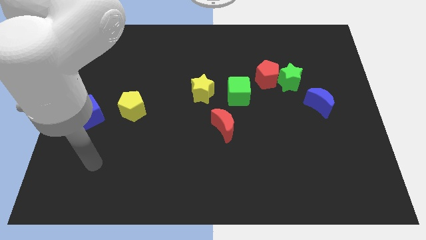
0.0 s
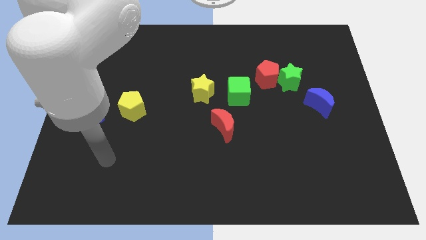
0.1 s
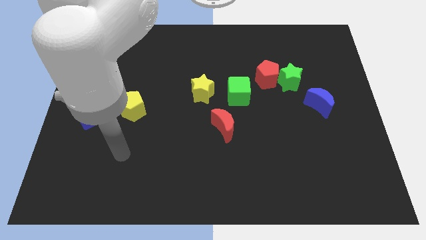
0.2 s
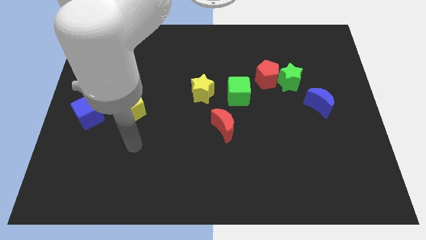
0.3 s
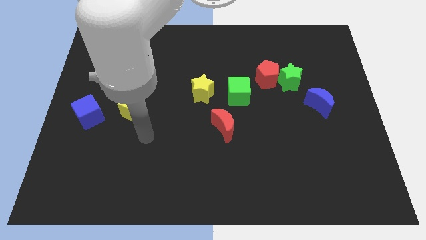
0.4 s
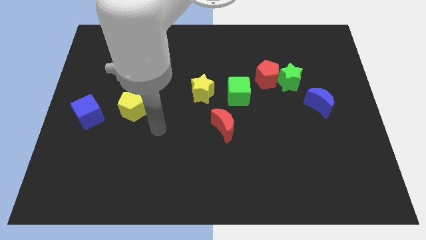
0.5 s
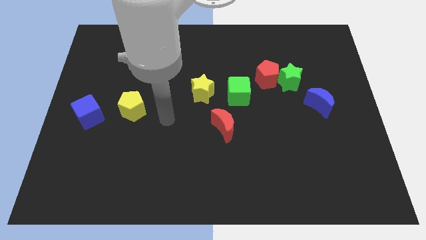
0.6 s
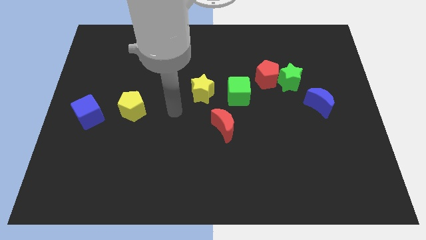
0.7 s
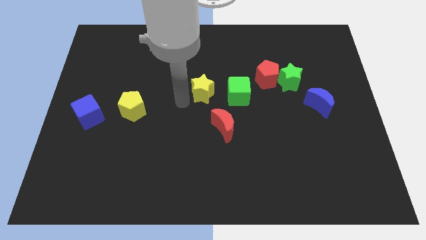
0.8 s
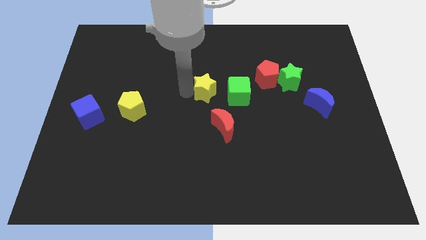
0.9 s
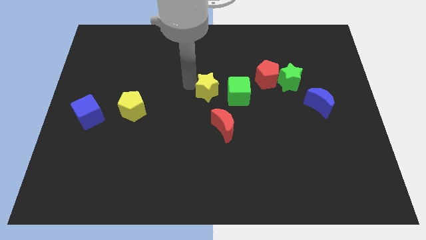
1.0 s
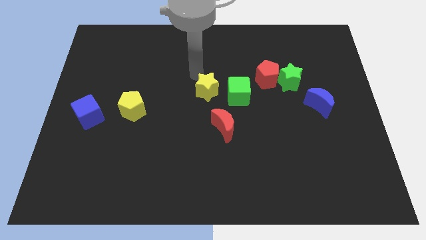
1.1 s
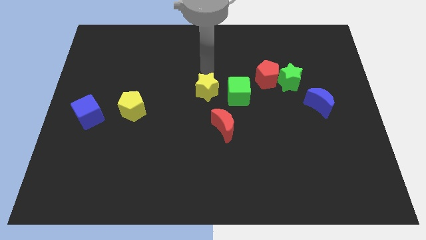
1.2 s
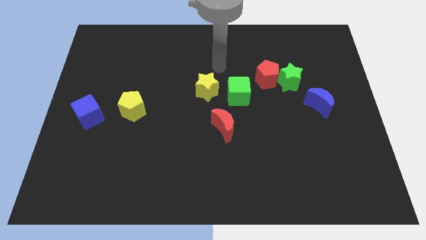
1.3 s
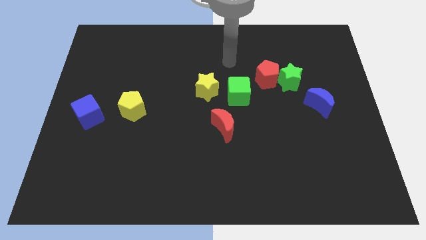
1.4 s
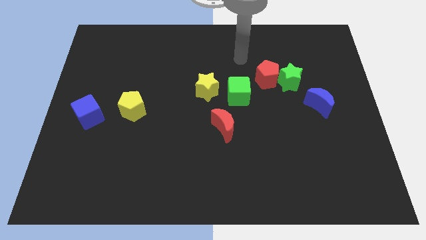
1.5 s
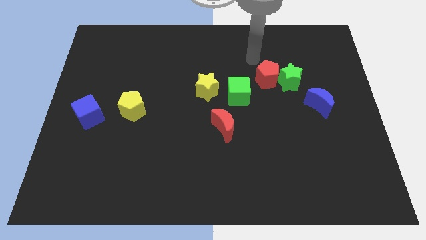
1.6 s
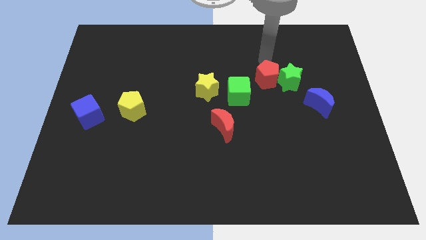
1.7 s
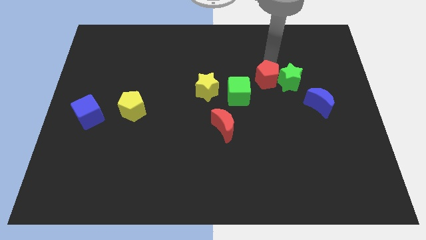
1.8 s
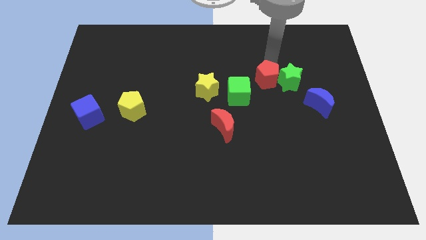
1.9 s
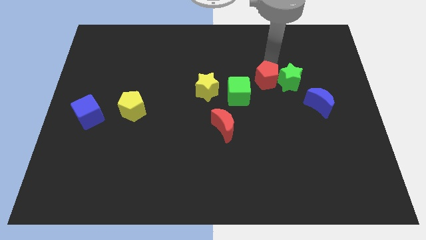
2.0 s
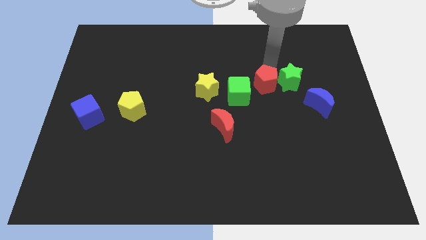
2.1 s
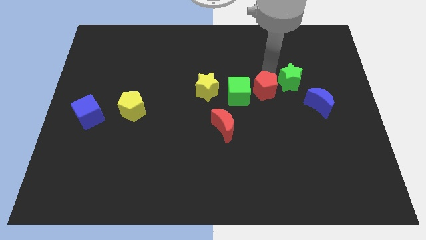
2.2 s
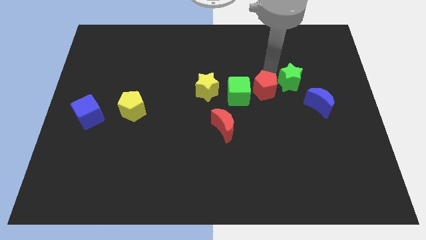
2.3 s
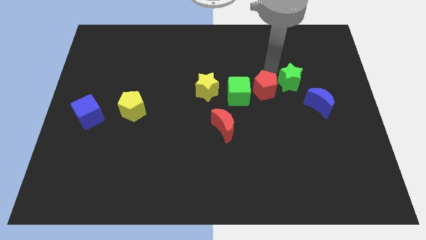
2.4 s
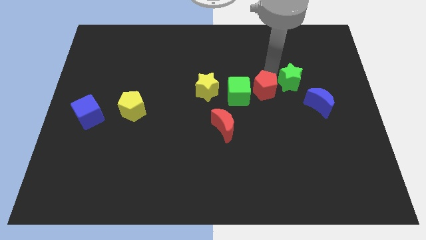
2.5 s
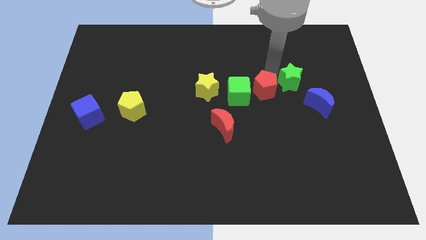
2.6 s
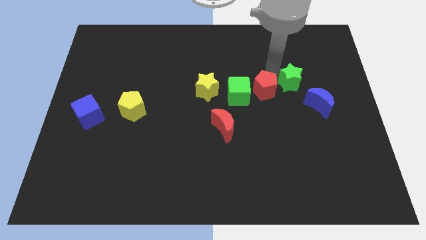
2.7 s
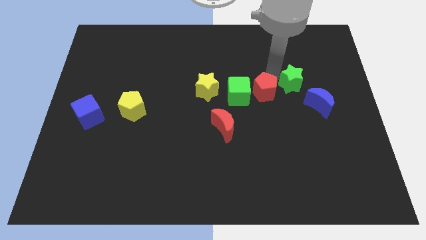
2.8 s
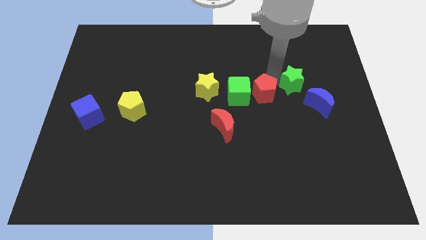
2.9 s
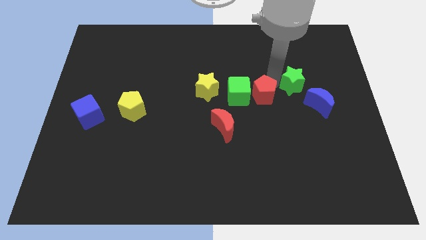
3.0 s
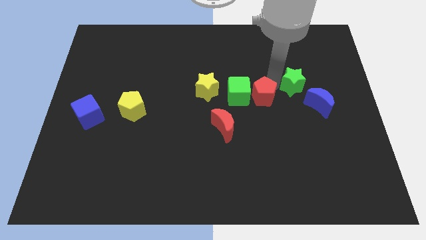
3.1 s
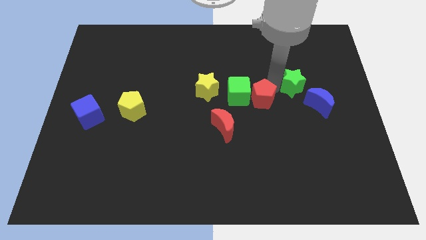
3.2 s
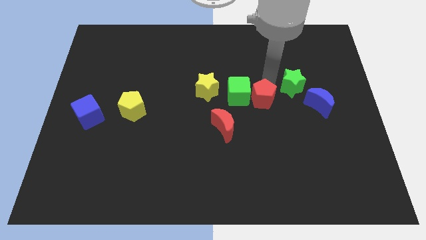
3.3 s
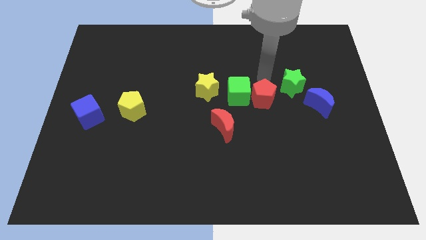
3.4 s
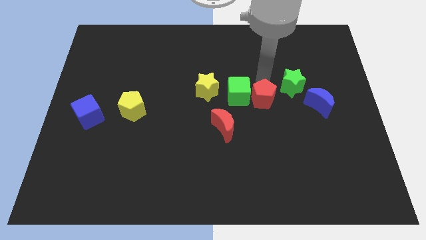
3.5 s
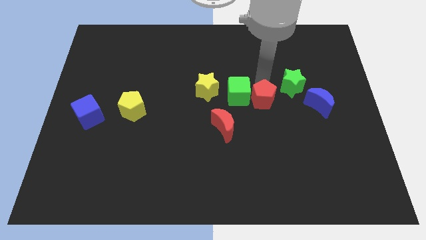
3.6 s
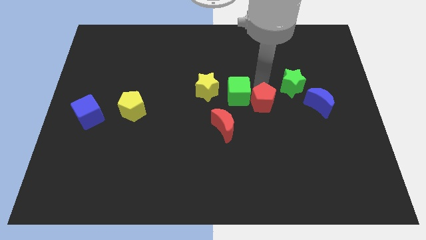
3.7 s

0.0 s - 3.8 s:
slightly slide the red pentagon down

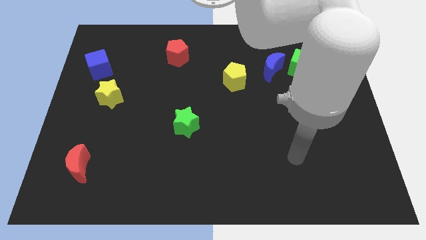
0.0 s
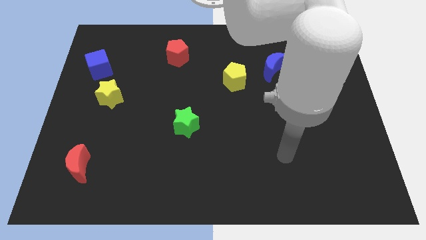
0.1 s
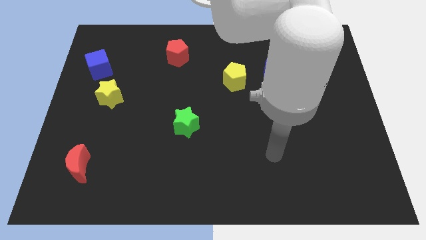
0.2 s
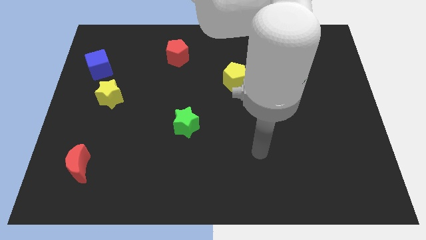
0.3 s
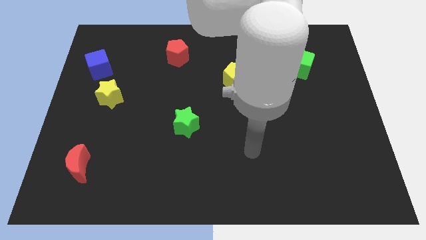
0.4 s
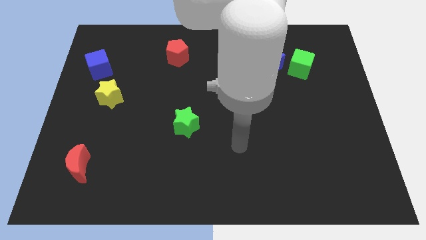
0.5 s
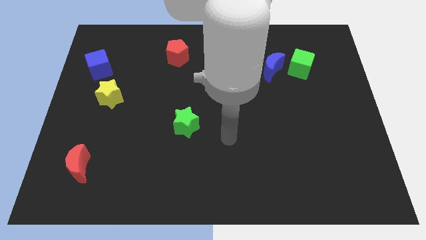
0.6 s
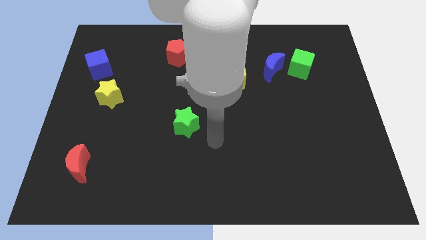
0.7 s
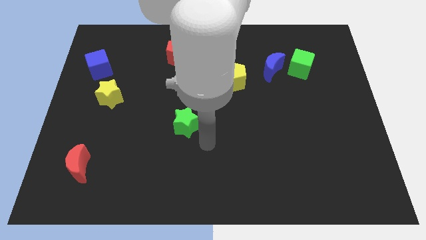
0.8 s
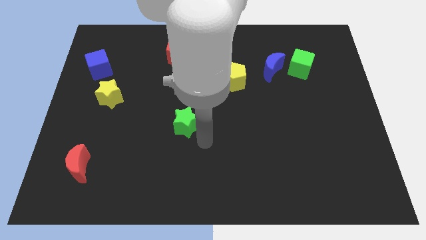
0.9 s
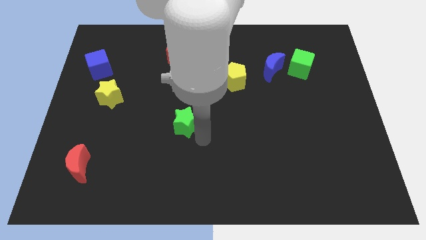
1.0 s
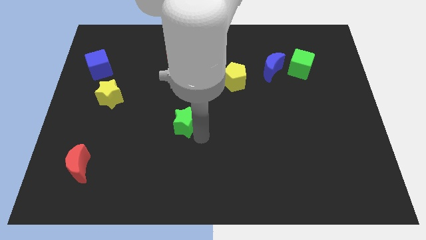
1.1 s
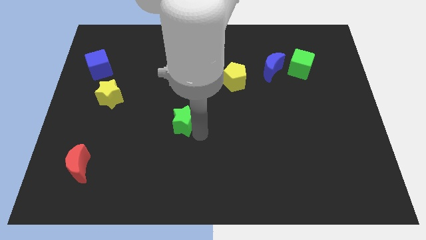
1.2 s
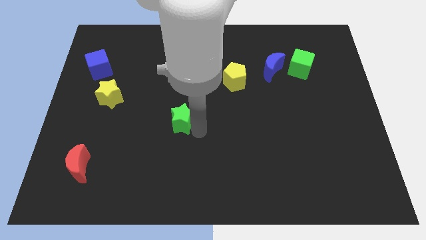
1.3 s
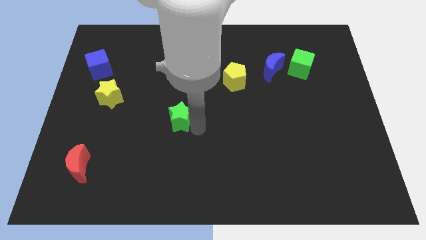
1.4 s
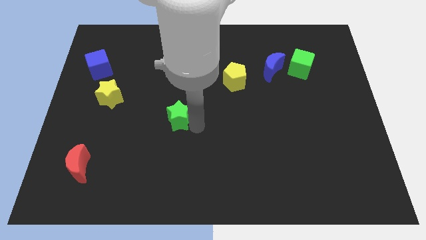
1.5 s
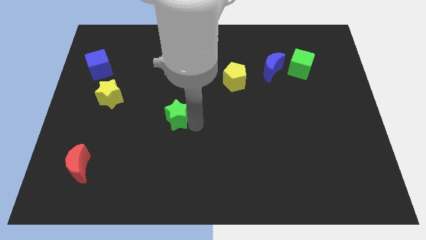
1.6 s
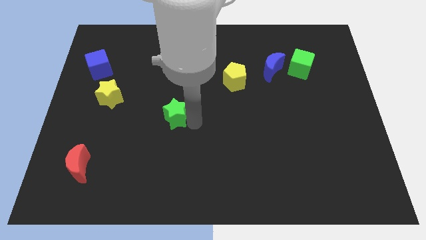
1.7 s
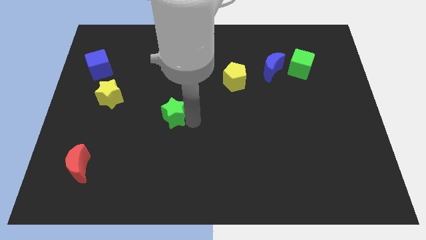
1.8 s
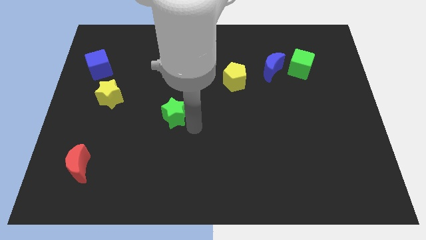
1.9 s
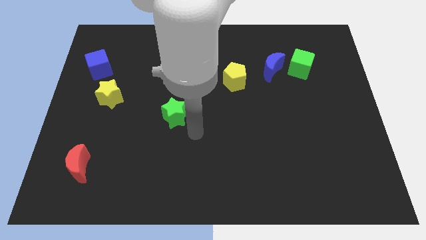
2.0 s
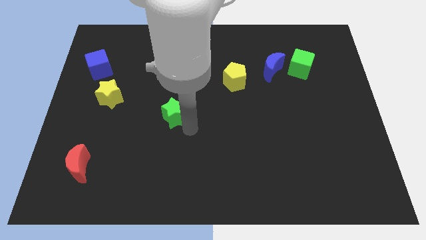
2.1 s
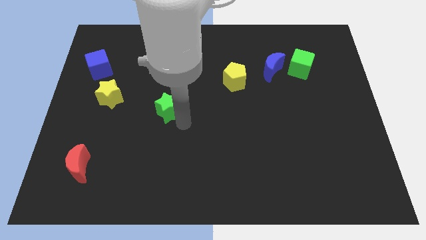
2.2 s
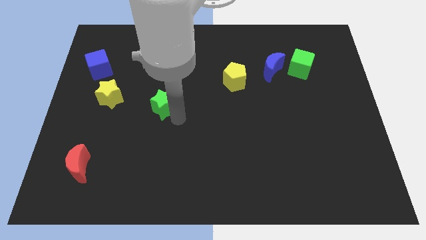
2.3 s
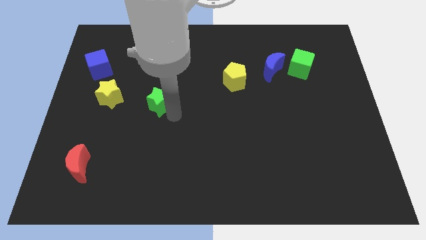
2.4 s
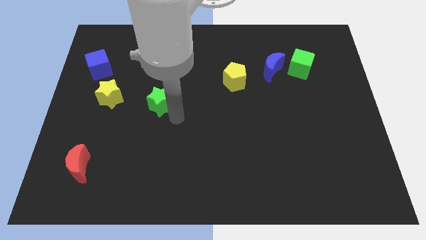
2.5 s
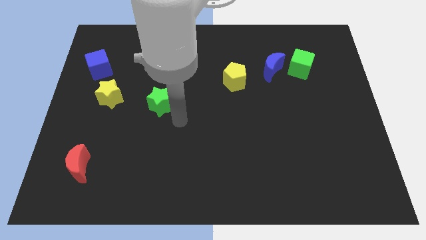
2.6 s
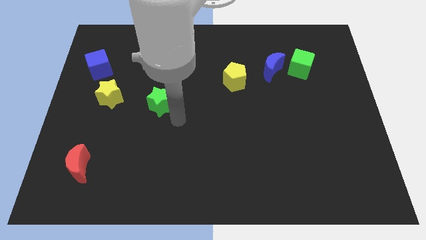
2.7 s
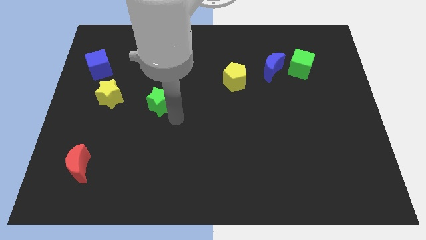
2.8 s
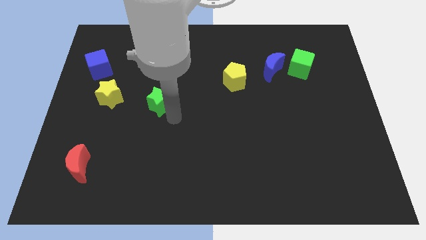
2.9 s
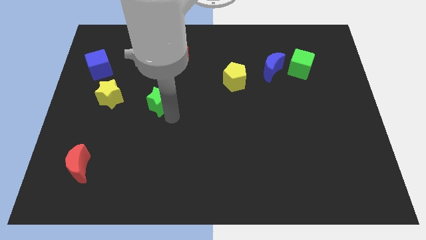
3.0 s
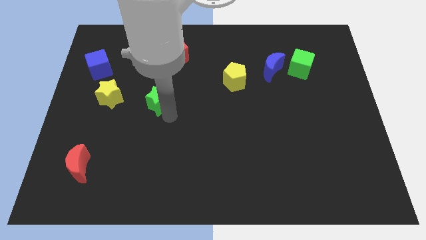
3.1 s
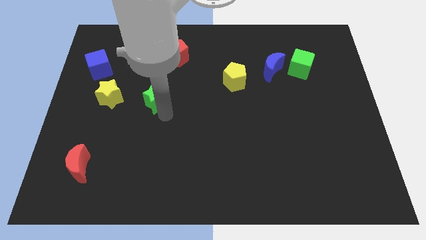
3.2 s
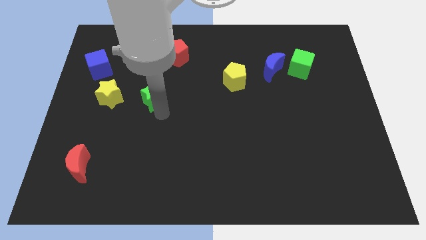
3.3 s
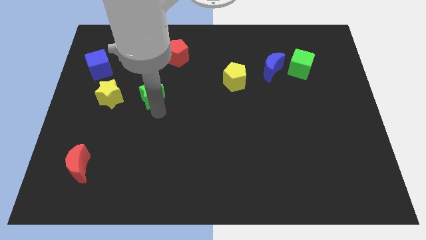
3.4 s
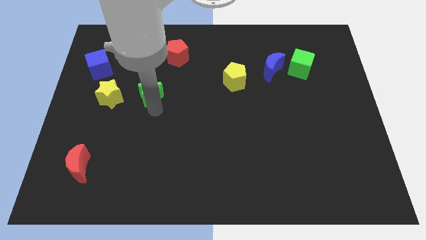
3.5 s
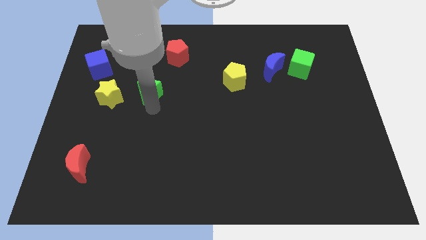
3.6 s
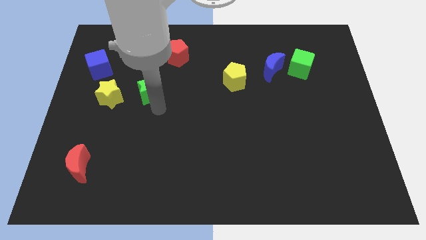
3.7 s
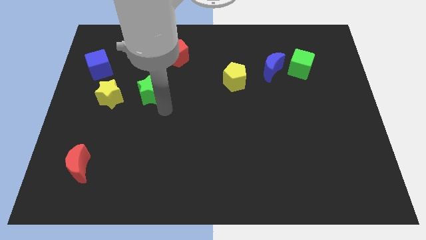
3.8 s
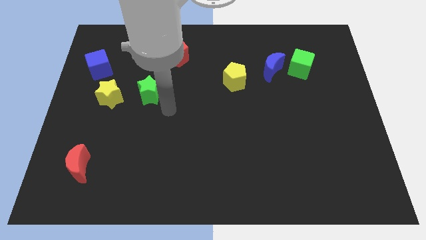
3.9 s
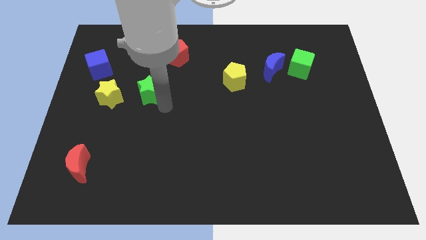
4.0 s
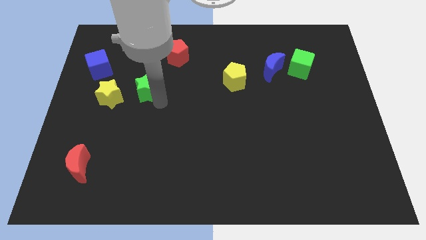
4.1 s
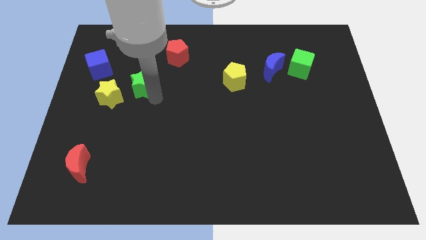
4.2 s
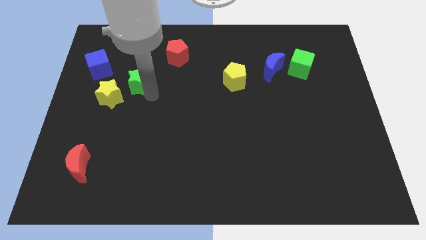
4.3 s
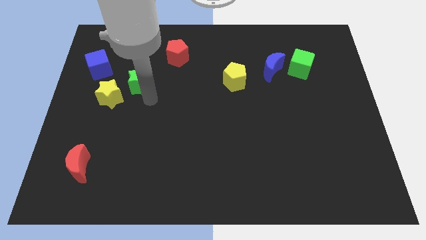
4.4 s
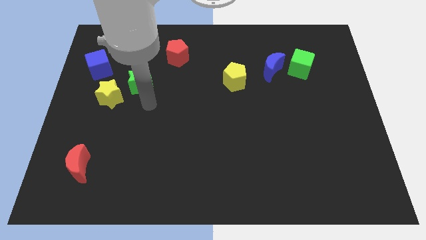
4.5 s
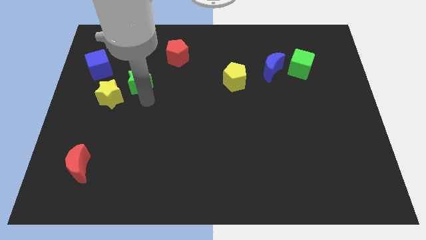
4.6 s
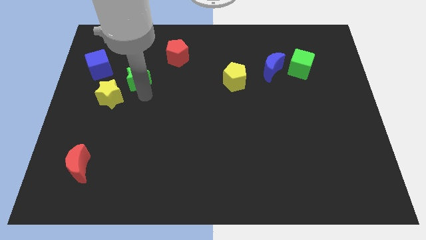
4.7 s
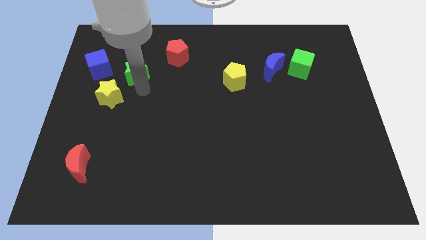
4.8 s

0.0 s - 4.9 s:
slide the green star upwards and to the left
